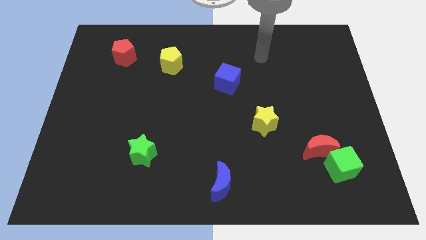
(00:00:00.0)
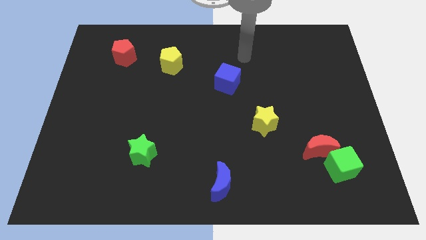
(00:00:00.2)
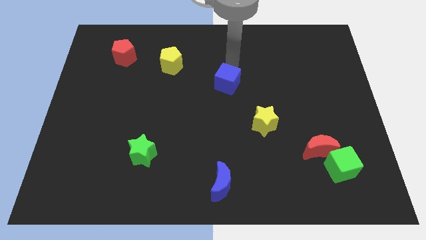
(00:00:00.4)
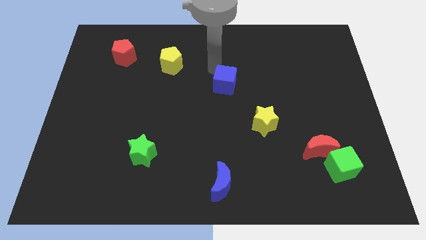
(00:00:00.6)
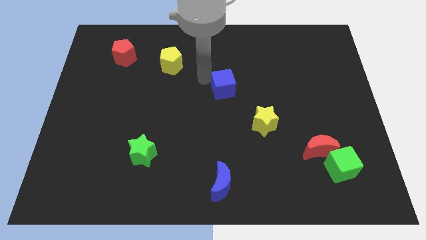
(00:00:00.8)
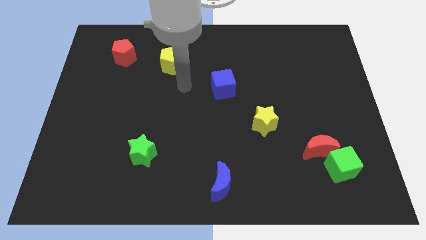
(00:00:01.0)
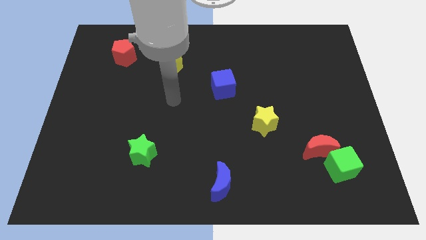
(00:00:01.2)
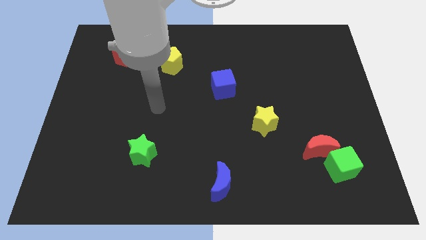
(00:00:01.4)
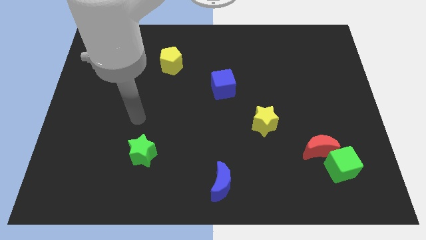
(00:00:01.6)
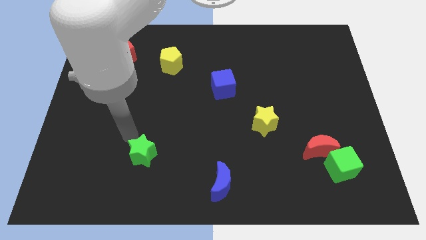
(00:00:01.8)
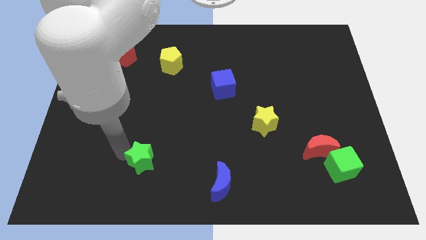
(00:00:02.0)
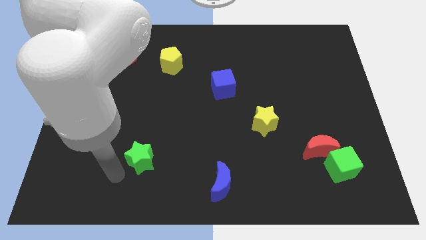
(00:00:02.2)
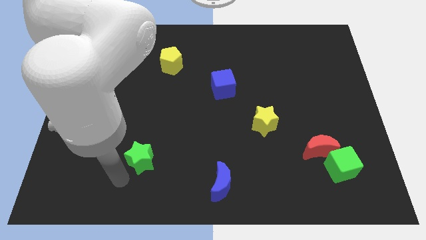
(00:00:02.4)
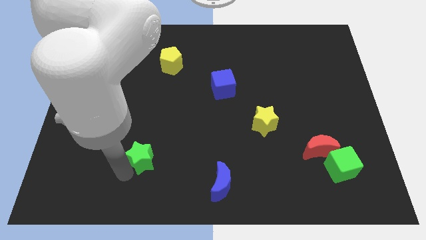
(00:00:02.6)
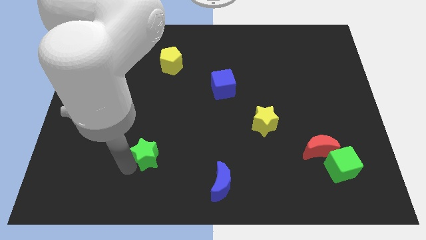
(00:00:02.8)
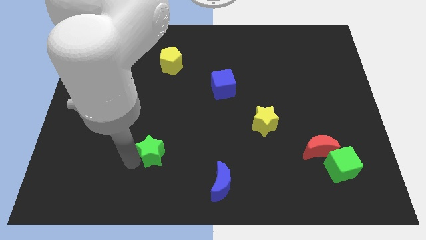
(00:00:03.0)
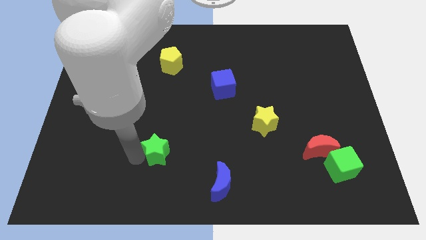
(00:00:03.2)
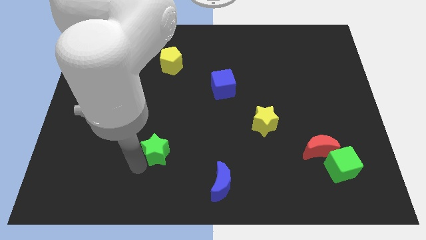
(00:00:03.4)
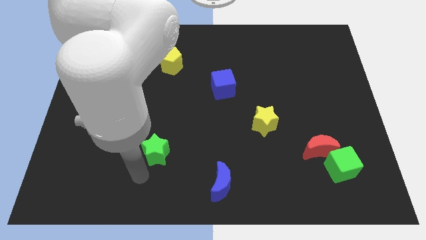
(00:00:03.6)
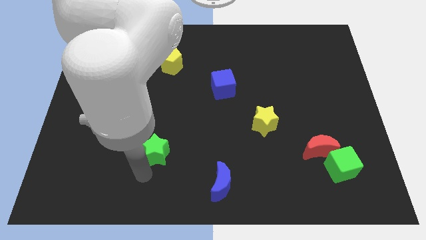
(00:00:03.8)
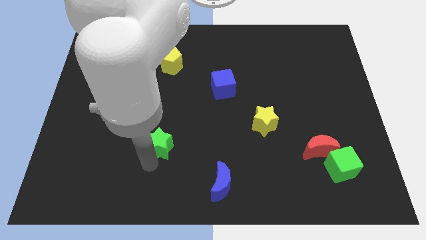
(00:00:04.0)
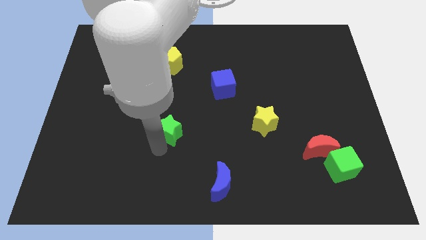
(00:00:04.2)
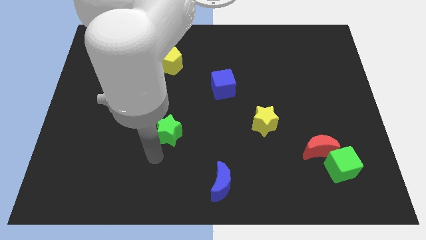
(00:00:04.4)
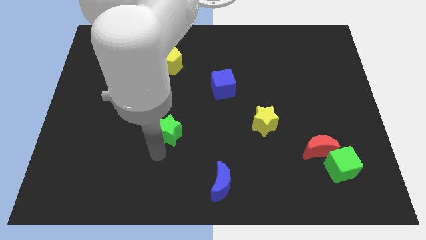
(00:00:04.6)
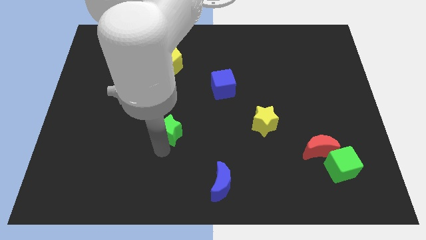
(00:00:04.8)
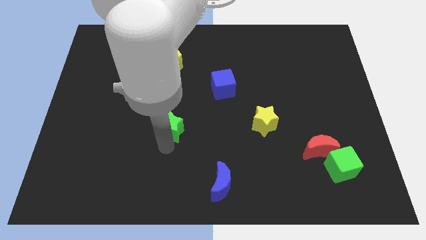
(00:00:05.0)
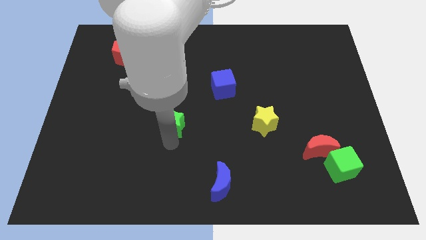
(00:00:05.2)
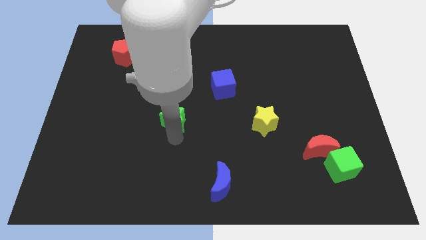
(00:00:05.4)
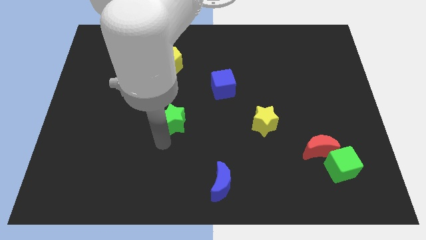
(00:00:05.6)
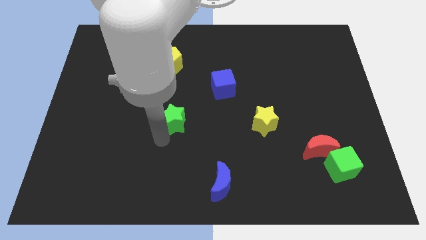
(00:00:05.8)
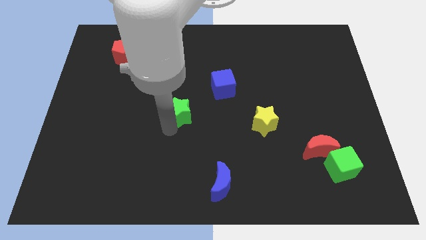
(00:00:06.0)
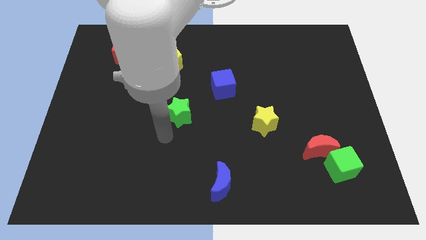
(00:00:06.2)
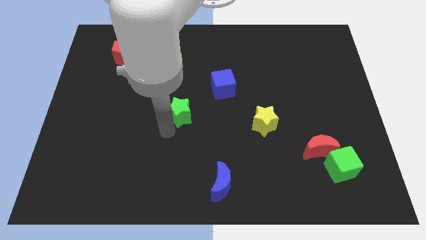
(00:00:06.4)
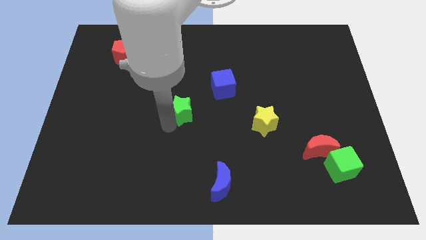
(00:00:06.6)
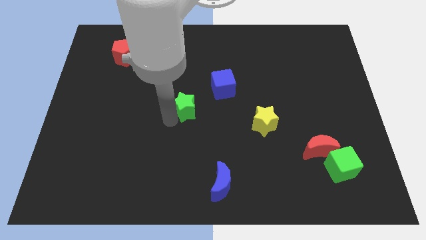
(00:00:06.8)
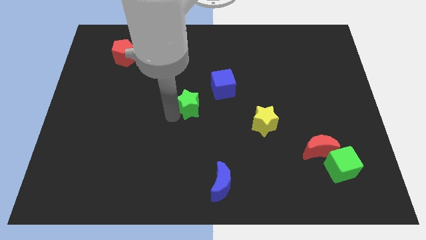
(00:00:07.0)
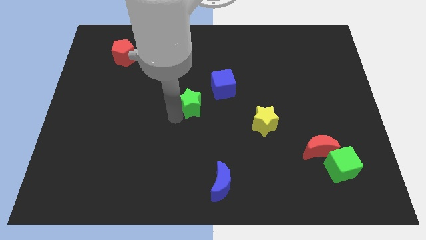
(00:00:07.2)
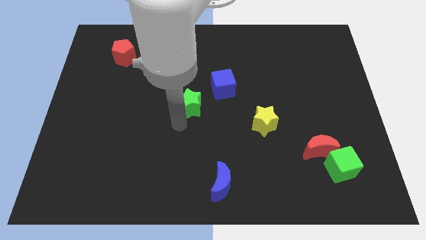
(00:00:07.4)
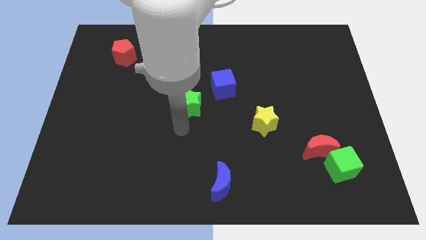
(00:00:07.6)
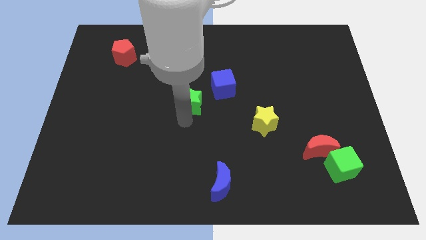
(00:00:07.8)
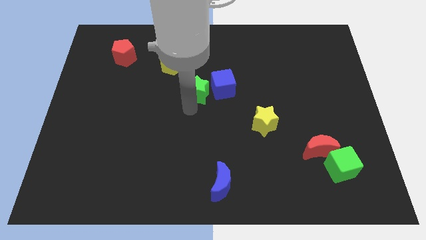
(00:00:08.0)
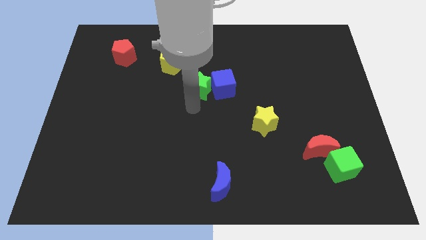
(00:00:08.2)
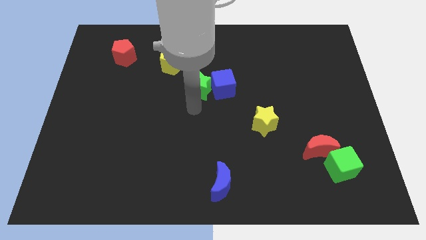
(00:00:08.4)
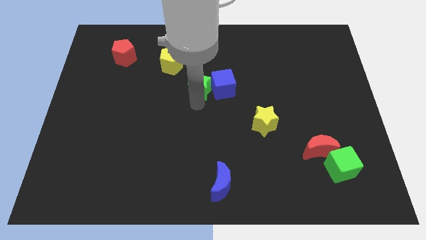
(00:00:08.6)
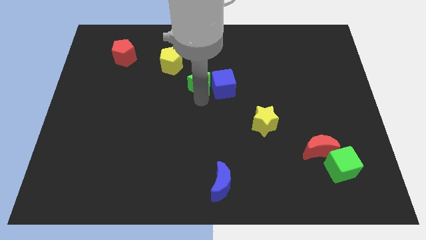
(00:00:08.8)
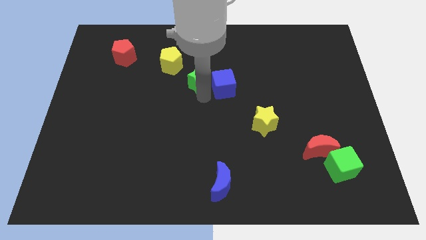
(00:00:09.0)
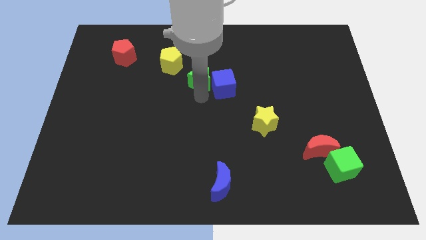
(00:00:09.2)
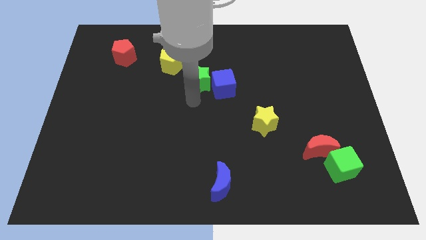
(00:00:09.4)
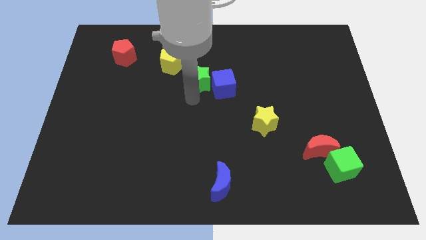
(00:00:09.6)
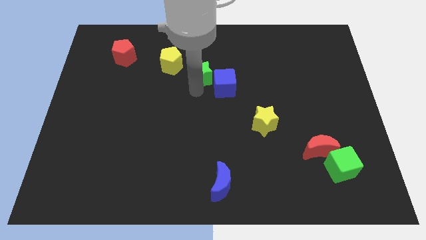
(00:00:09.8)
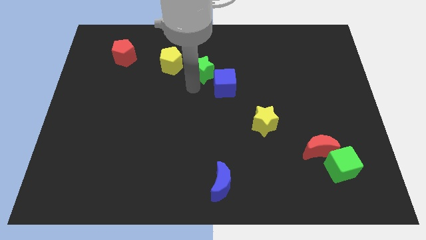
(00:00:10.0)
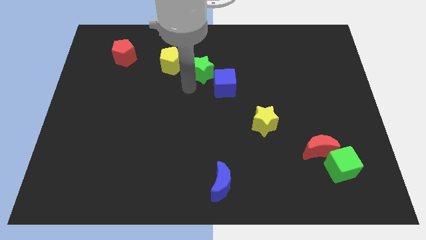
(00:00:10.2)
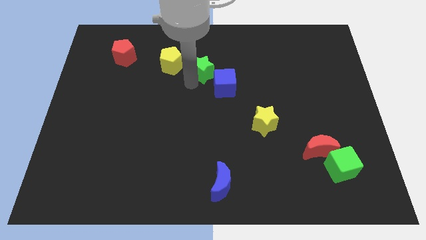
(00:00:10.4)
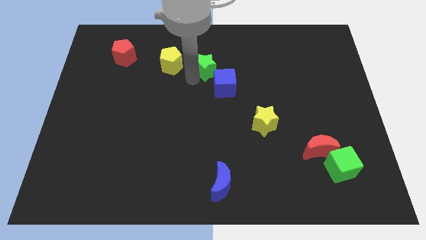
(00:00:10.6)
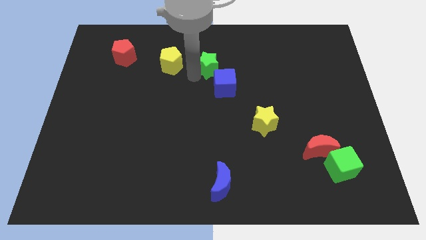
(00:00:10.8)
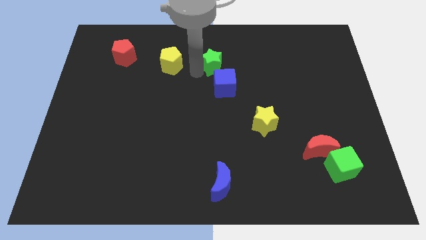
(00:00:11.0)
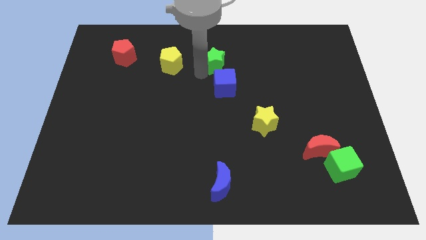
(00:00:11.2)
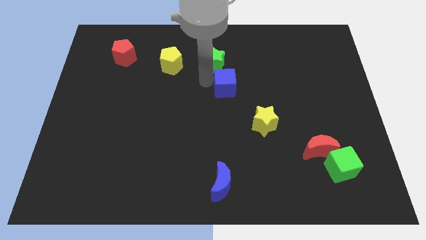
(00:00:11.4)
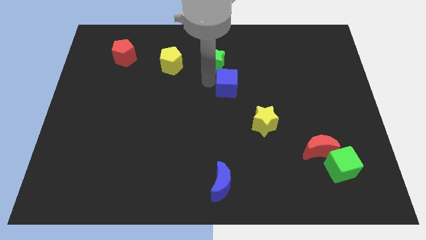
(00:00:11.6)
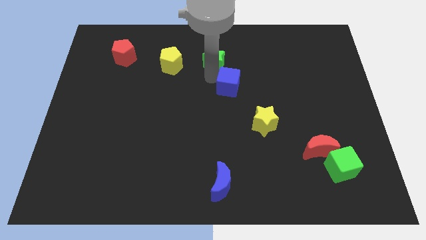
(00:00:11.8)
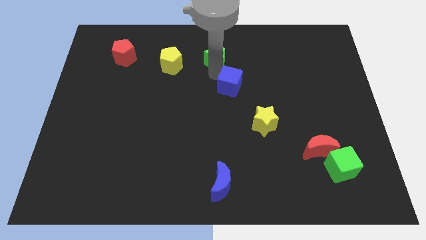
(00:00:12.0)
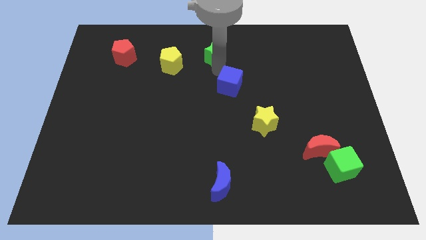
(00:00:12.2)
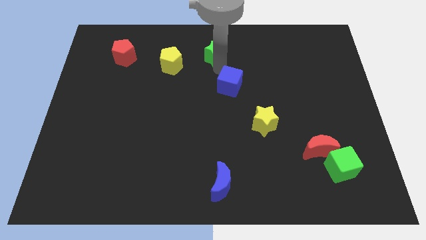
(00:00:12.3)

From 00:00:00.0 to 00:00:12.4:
push the green star to the top

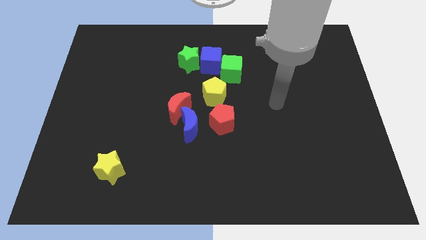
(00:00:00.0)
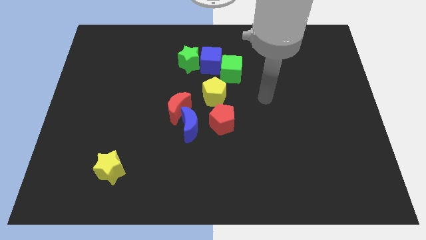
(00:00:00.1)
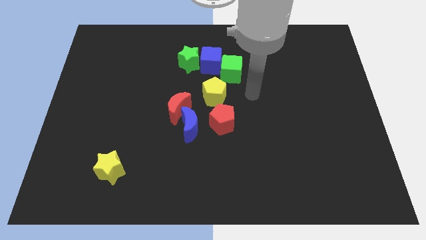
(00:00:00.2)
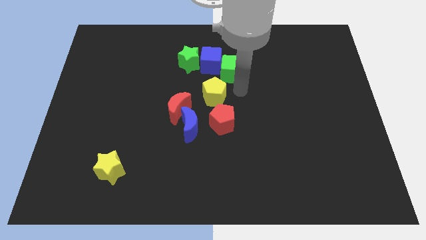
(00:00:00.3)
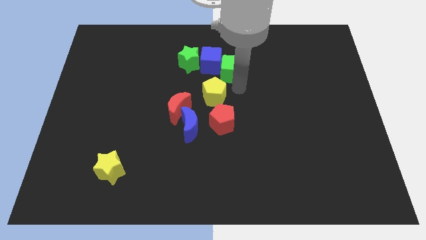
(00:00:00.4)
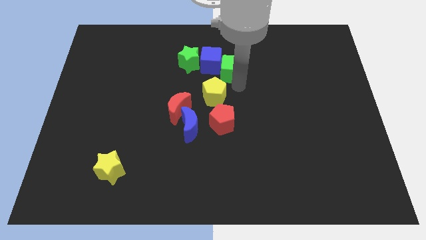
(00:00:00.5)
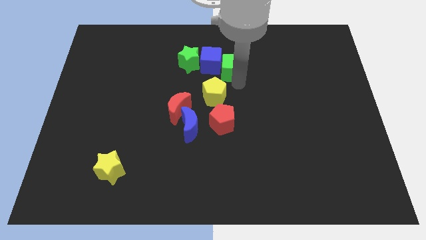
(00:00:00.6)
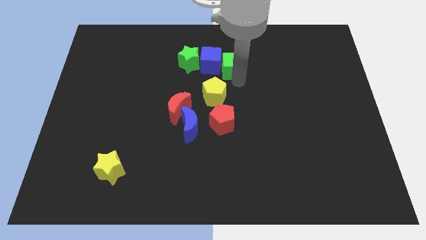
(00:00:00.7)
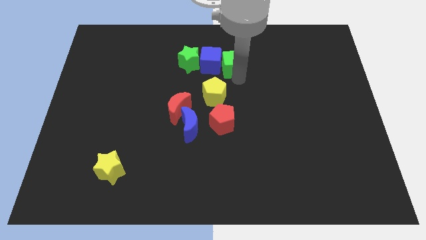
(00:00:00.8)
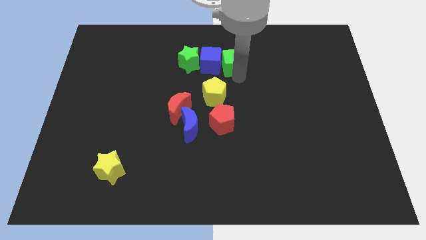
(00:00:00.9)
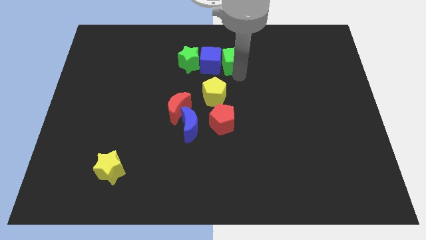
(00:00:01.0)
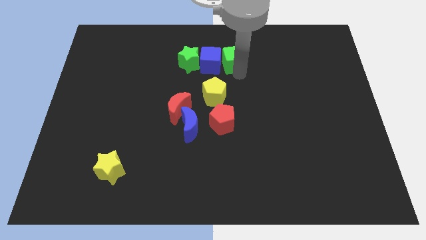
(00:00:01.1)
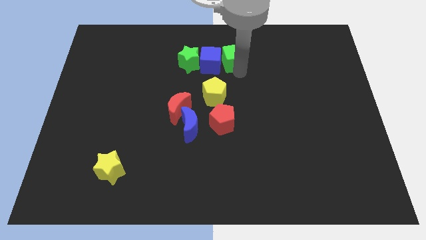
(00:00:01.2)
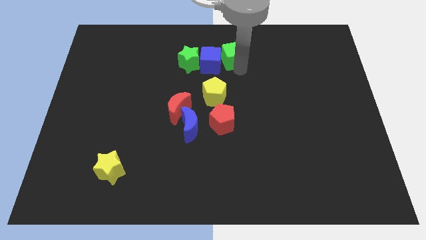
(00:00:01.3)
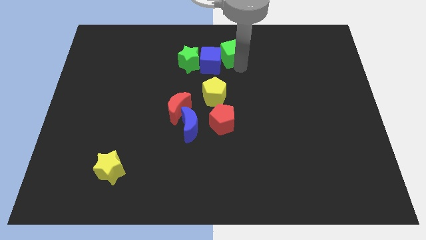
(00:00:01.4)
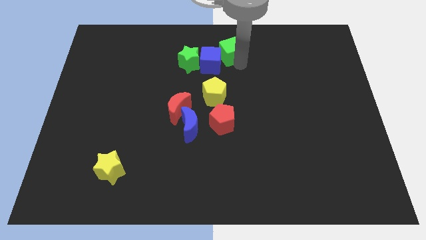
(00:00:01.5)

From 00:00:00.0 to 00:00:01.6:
slide the green cube to the top side
